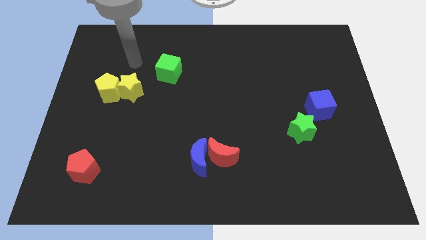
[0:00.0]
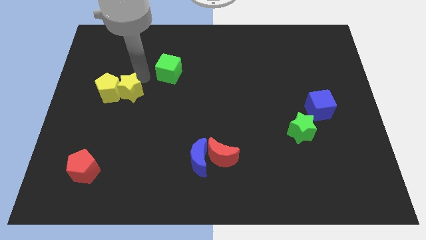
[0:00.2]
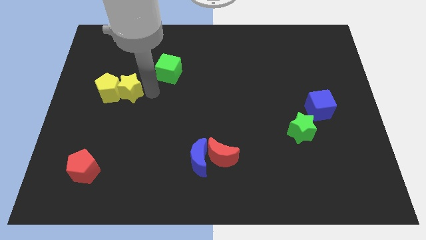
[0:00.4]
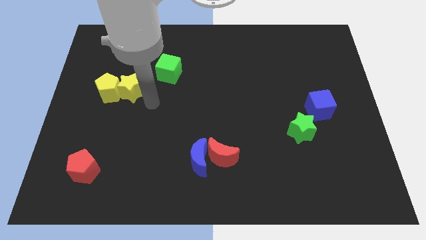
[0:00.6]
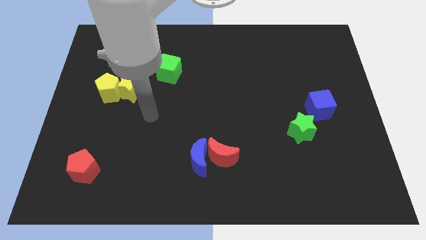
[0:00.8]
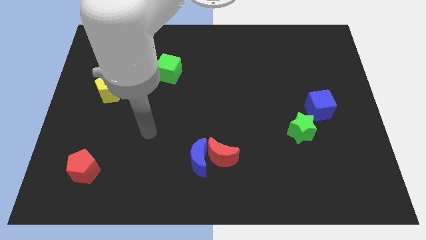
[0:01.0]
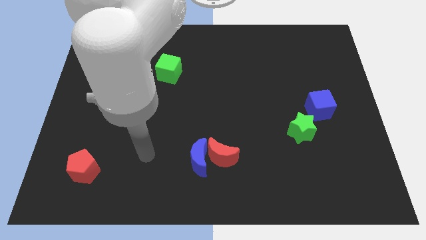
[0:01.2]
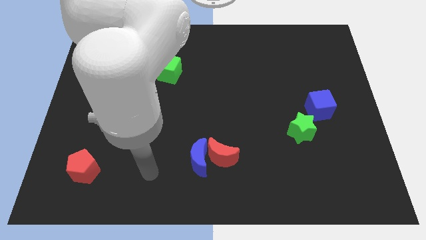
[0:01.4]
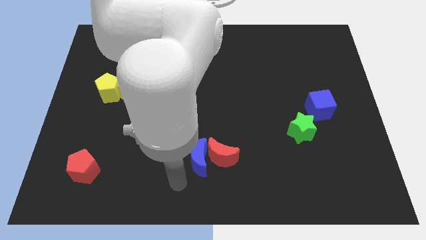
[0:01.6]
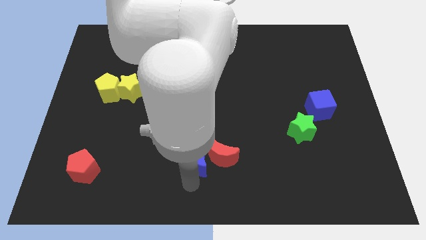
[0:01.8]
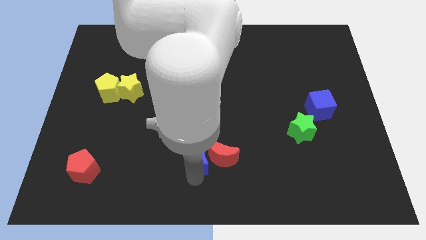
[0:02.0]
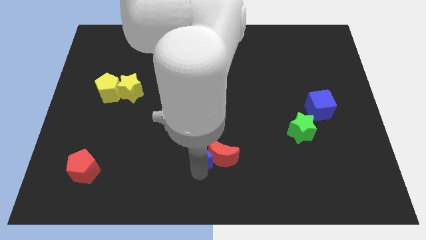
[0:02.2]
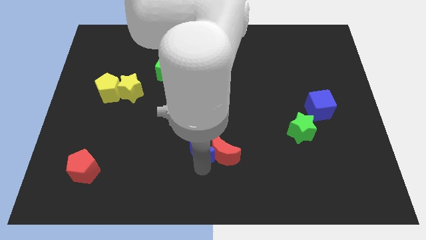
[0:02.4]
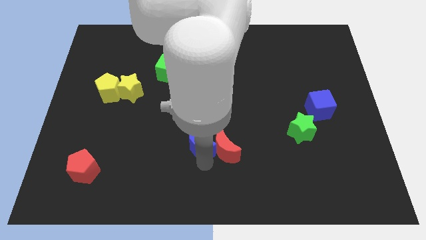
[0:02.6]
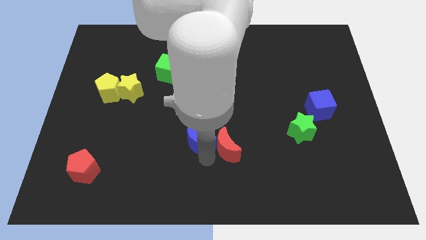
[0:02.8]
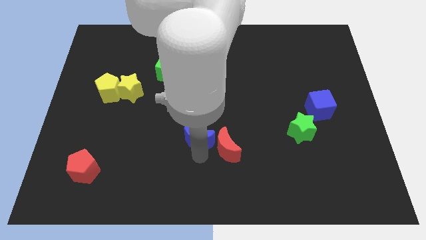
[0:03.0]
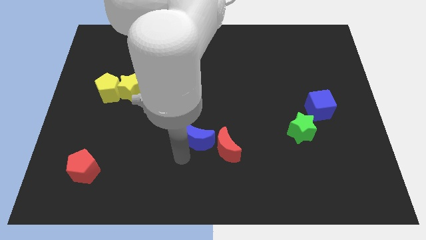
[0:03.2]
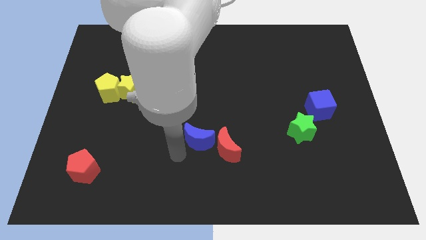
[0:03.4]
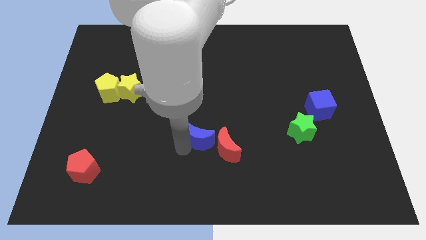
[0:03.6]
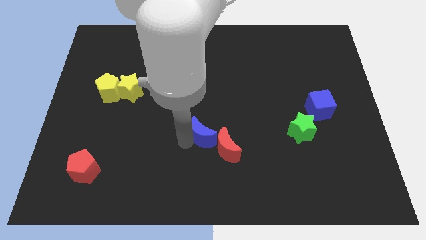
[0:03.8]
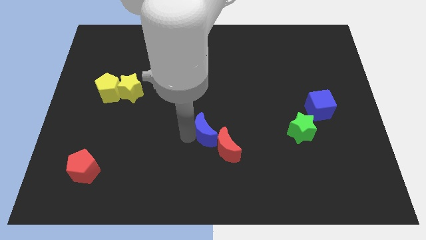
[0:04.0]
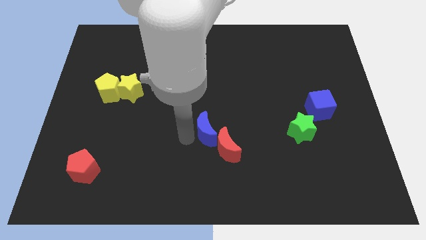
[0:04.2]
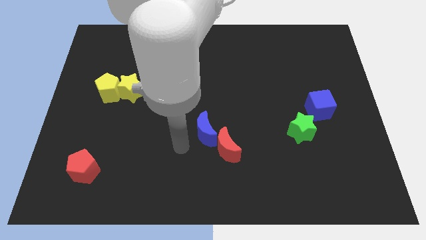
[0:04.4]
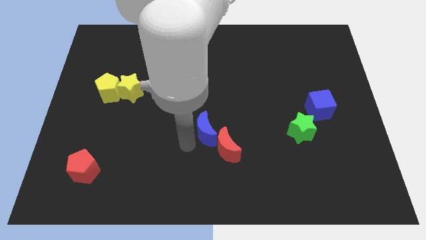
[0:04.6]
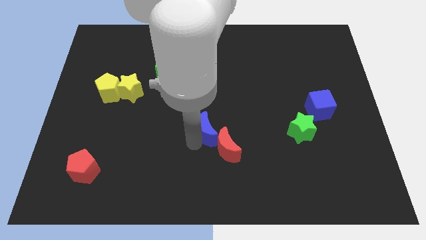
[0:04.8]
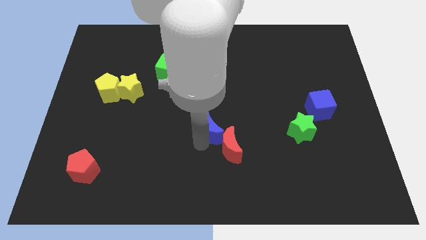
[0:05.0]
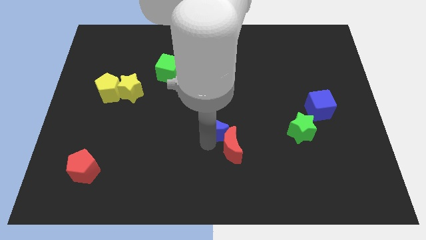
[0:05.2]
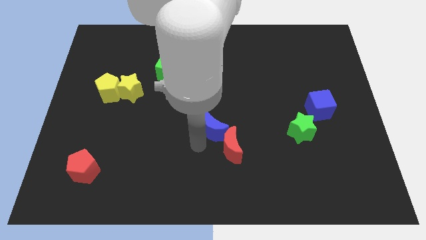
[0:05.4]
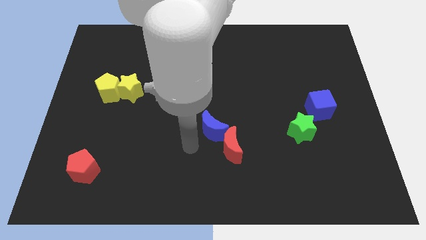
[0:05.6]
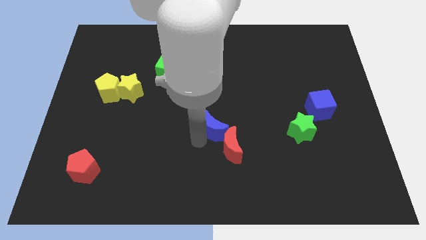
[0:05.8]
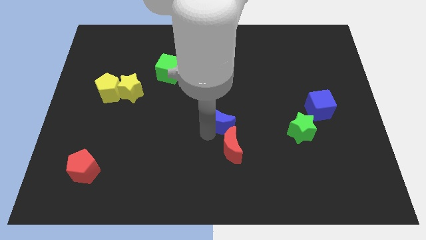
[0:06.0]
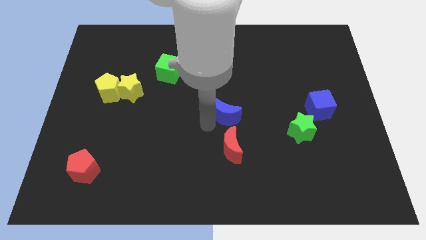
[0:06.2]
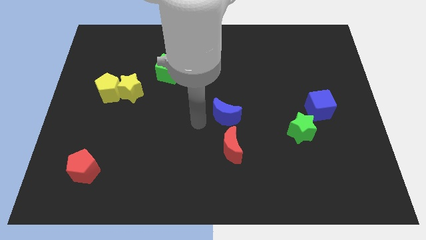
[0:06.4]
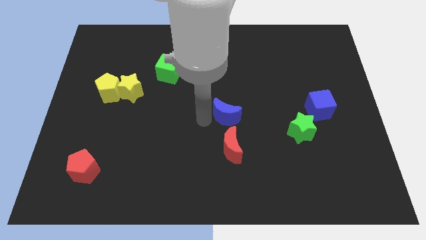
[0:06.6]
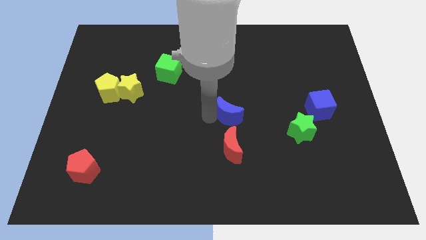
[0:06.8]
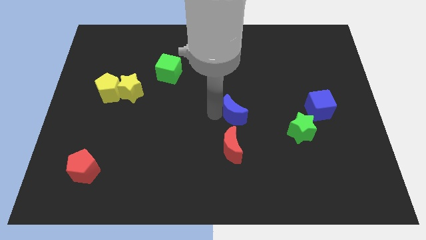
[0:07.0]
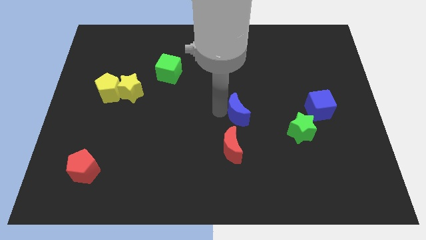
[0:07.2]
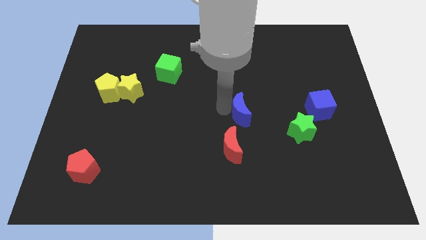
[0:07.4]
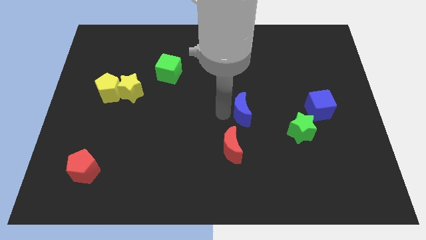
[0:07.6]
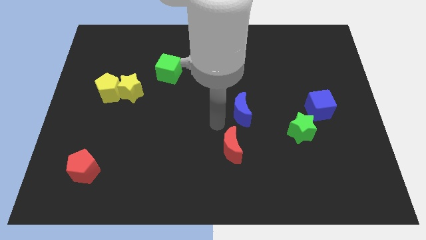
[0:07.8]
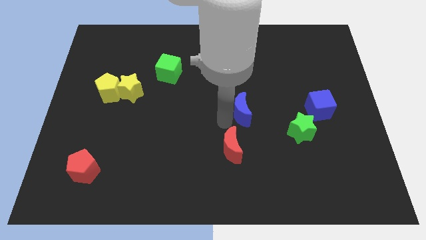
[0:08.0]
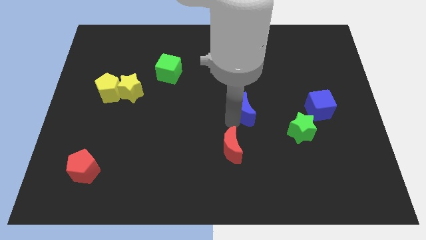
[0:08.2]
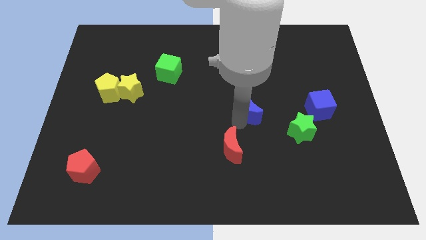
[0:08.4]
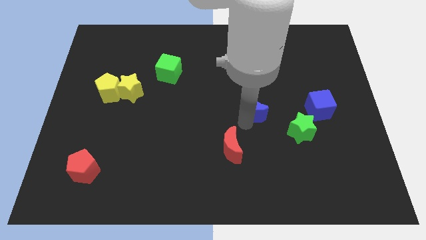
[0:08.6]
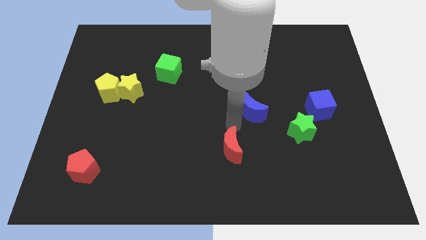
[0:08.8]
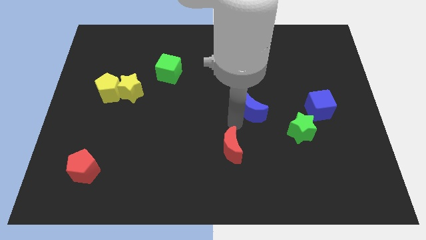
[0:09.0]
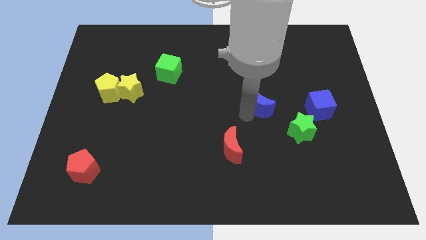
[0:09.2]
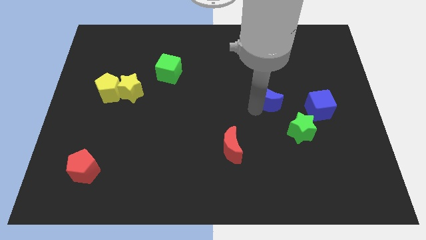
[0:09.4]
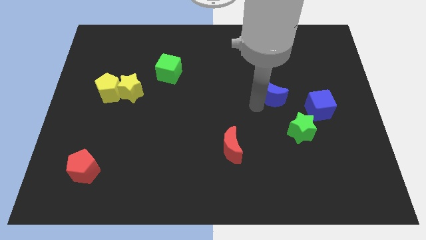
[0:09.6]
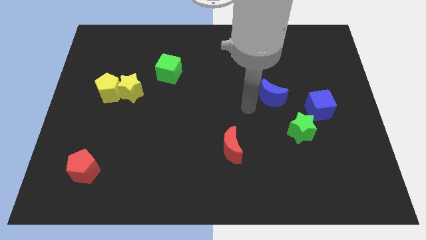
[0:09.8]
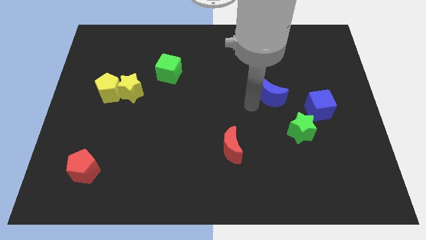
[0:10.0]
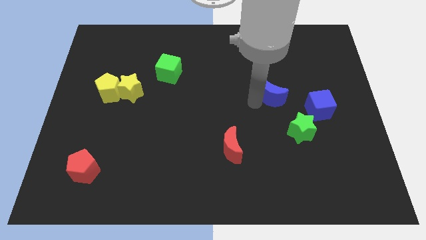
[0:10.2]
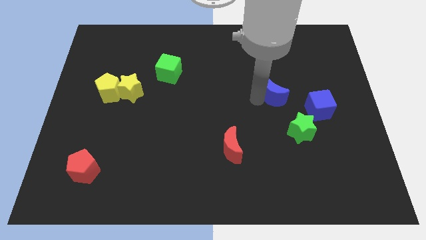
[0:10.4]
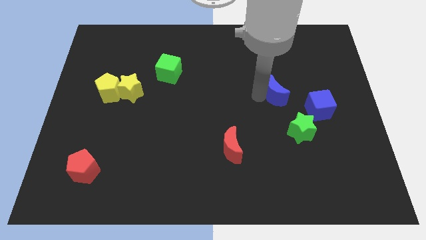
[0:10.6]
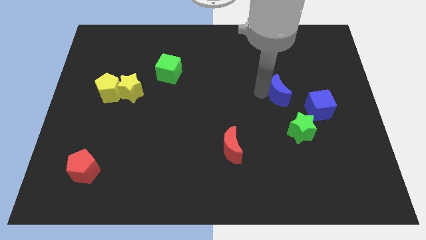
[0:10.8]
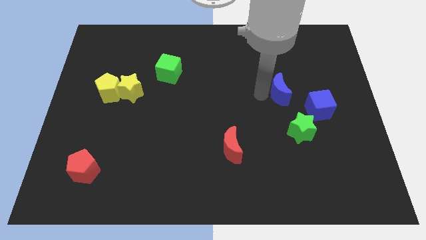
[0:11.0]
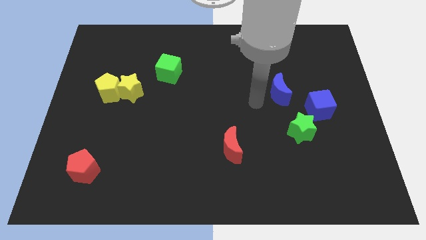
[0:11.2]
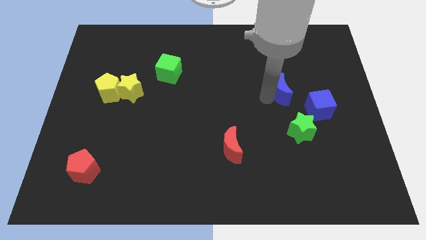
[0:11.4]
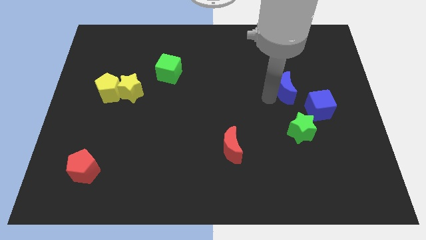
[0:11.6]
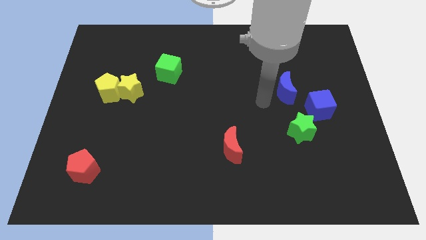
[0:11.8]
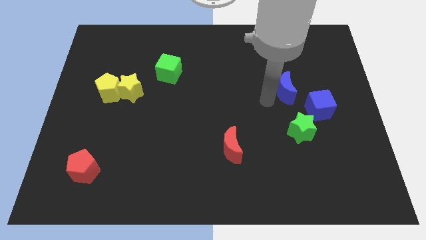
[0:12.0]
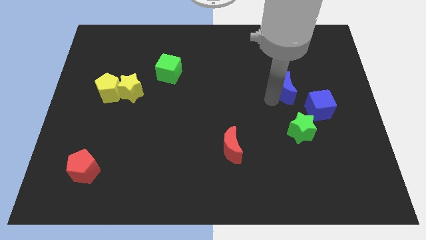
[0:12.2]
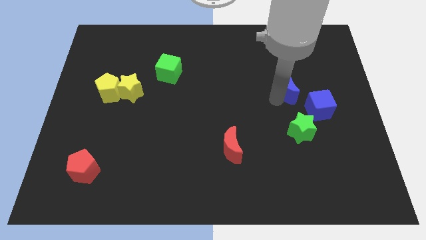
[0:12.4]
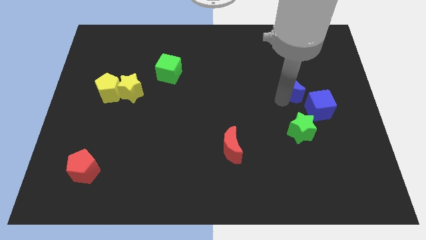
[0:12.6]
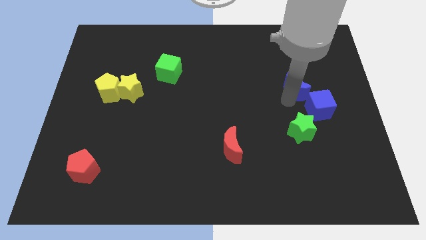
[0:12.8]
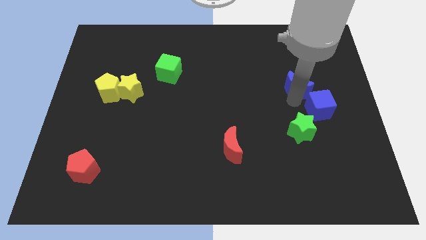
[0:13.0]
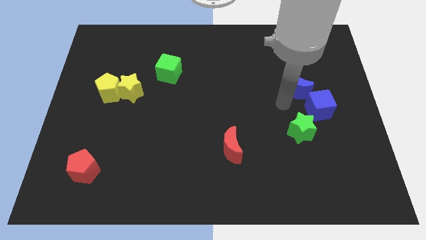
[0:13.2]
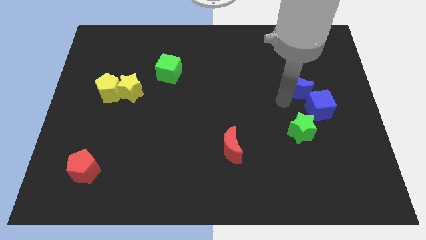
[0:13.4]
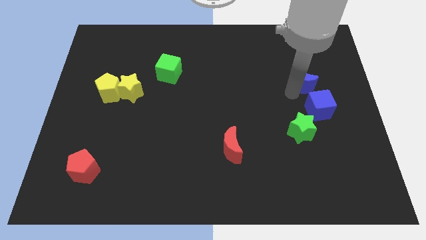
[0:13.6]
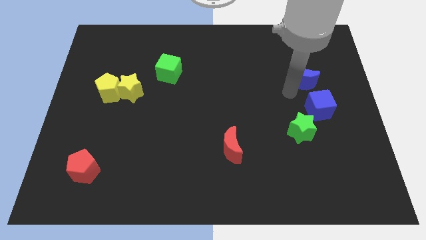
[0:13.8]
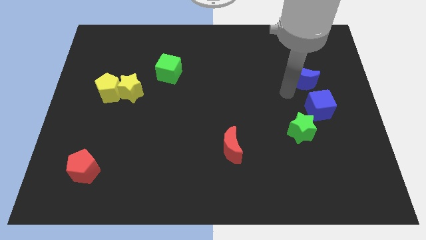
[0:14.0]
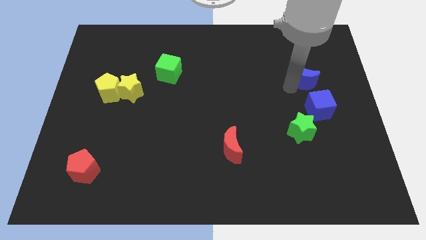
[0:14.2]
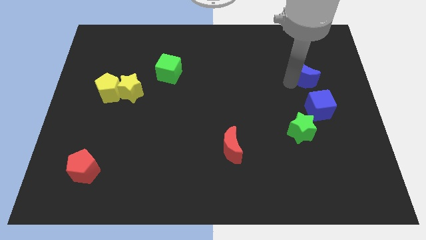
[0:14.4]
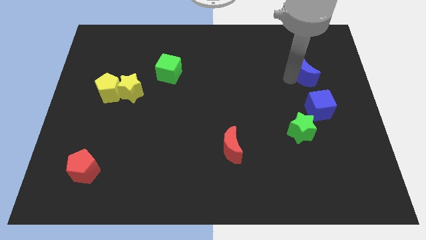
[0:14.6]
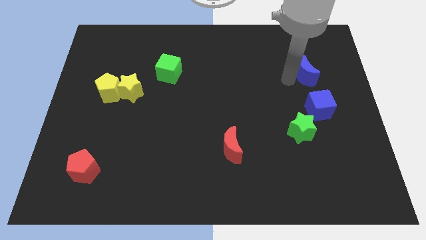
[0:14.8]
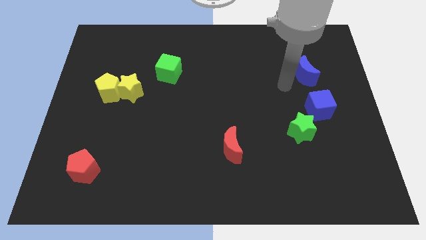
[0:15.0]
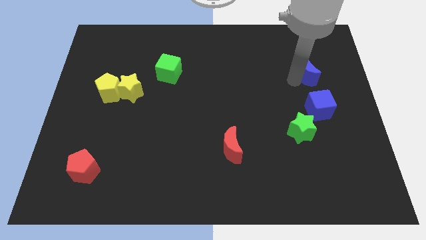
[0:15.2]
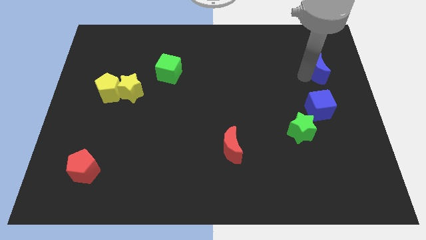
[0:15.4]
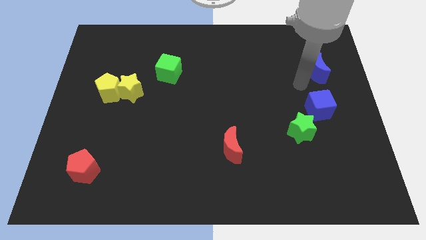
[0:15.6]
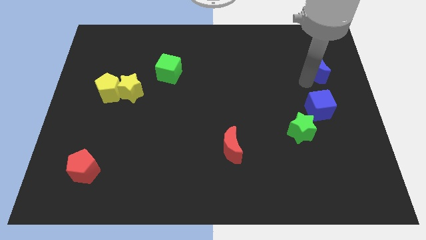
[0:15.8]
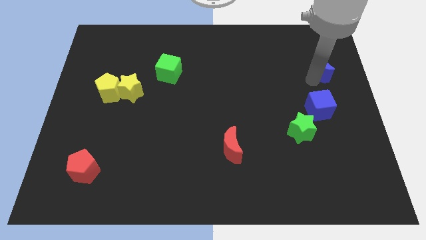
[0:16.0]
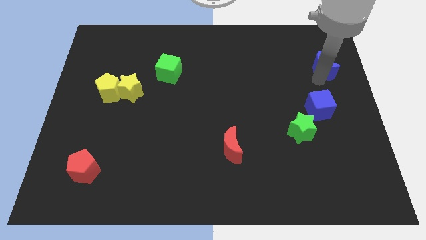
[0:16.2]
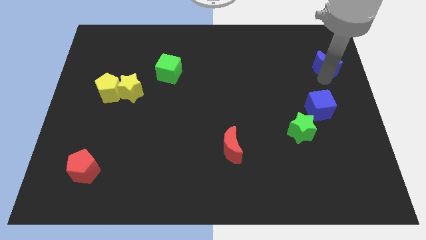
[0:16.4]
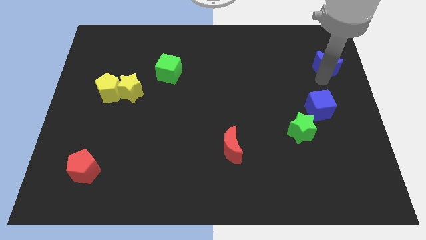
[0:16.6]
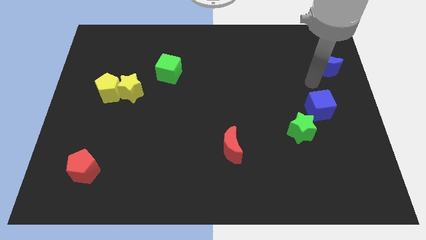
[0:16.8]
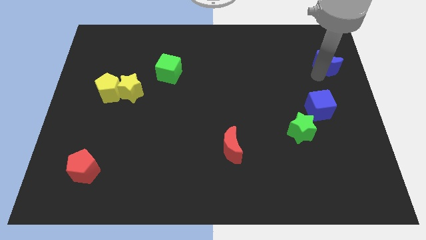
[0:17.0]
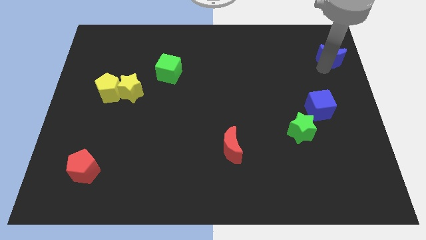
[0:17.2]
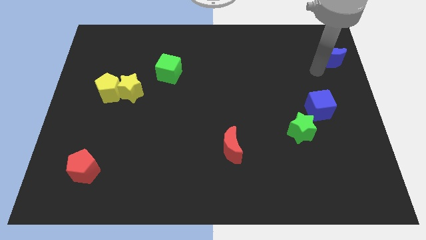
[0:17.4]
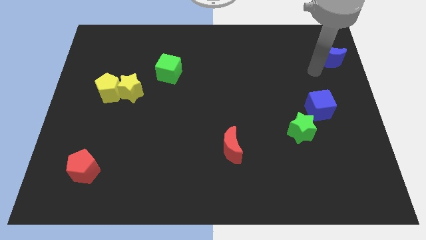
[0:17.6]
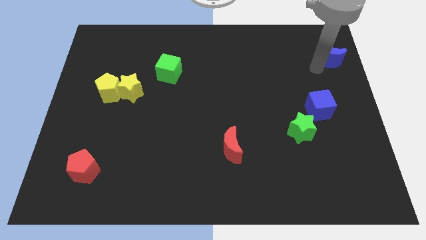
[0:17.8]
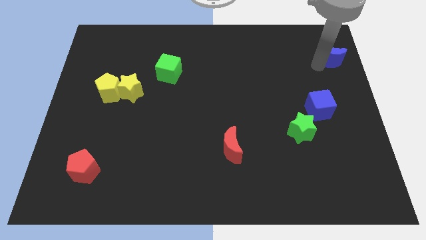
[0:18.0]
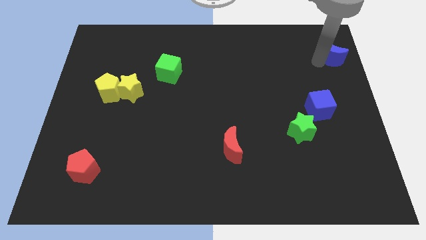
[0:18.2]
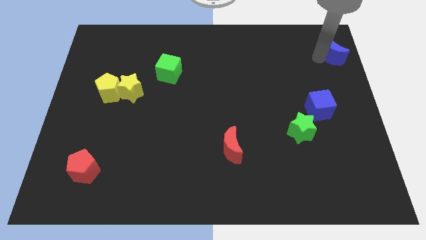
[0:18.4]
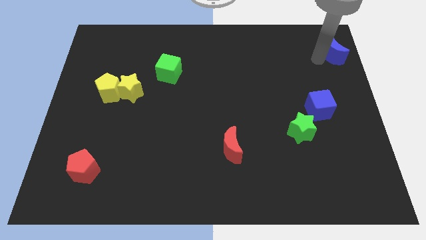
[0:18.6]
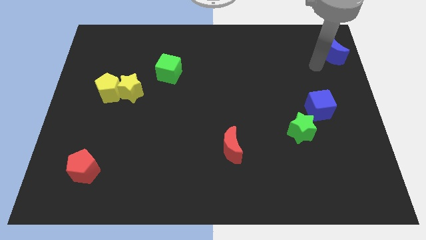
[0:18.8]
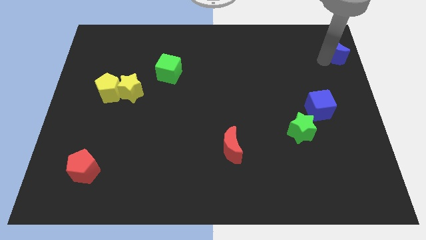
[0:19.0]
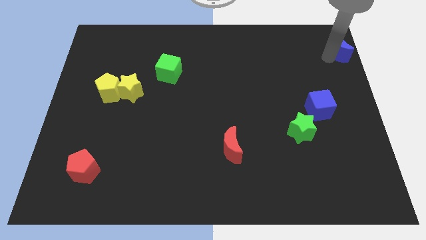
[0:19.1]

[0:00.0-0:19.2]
put the blue moon to the top right of the board
